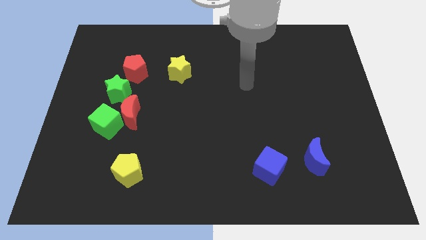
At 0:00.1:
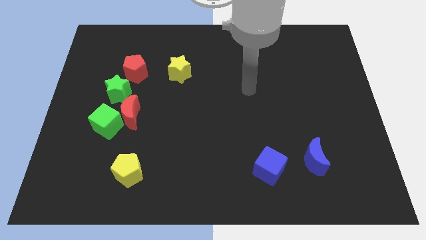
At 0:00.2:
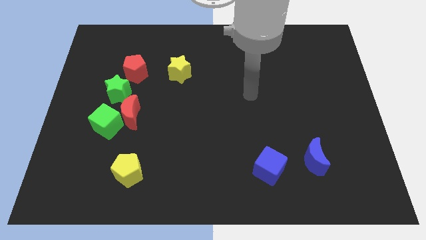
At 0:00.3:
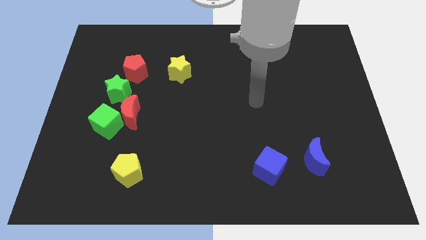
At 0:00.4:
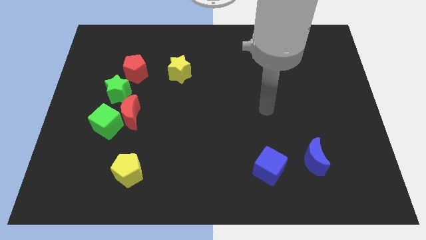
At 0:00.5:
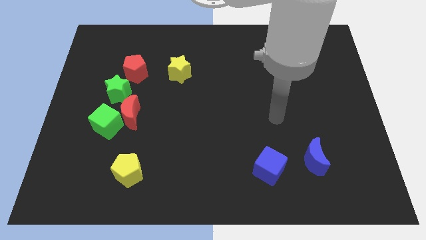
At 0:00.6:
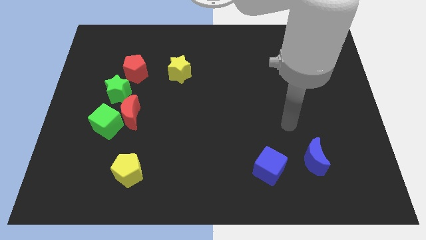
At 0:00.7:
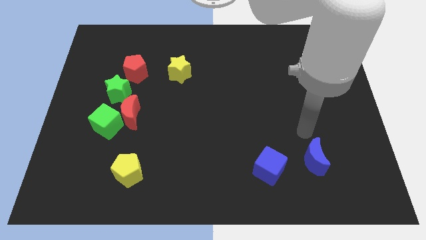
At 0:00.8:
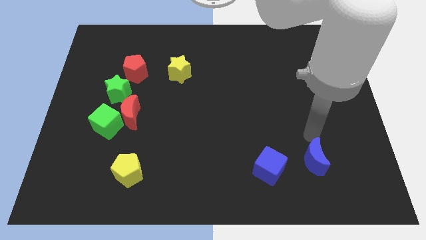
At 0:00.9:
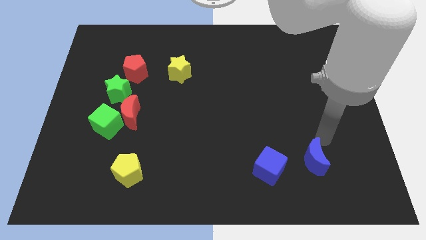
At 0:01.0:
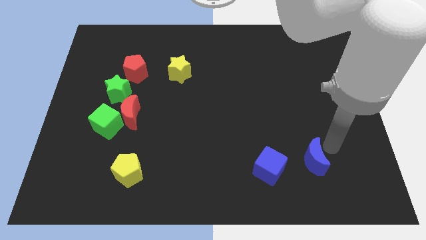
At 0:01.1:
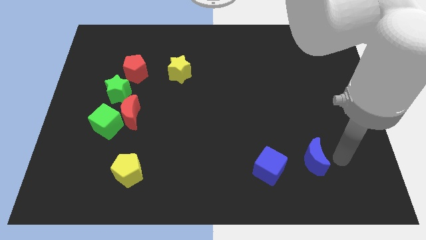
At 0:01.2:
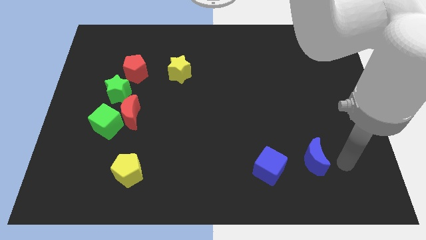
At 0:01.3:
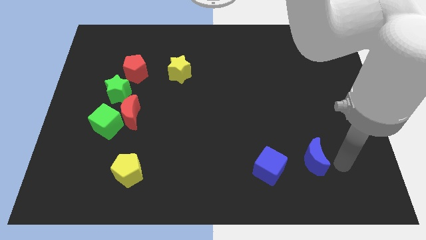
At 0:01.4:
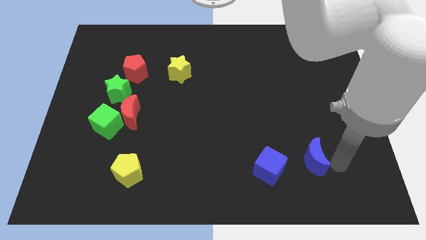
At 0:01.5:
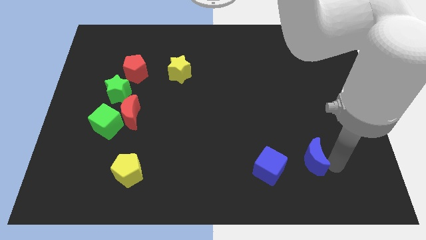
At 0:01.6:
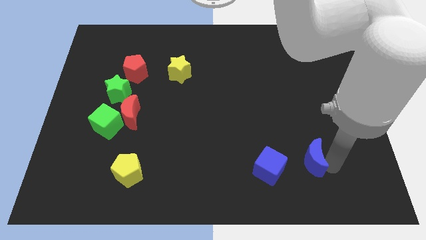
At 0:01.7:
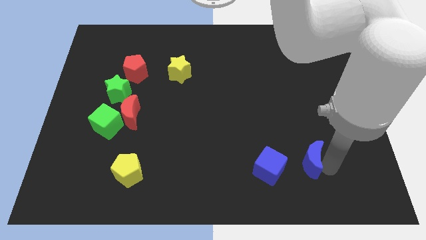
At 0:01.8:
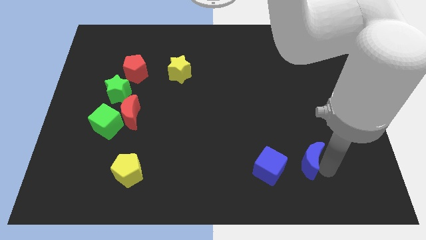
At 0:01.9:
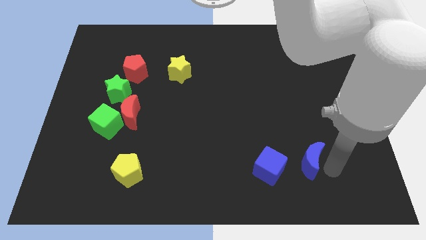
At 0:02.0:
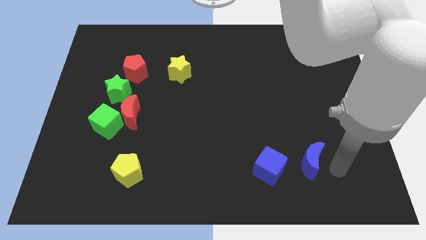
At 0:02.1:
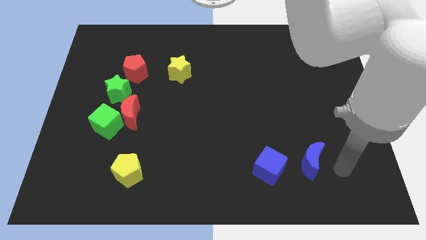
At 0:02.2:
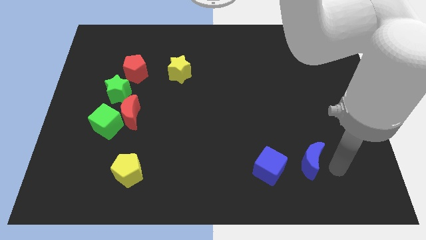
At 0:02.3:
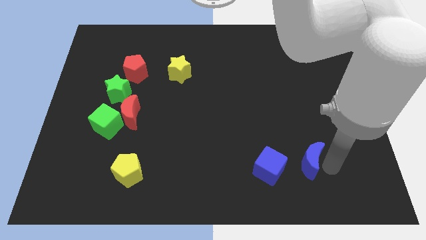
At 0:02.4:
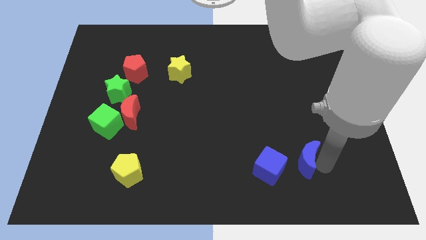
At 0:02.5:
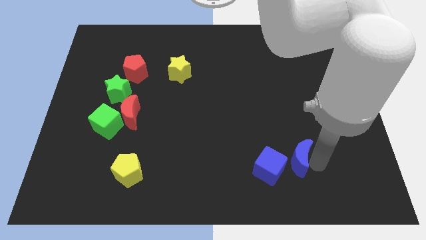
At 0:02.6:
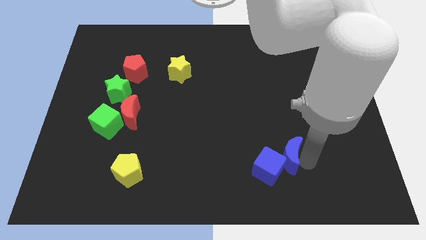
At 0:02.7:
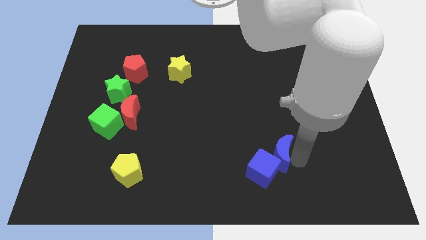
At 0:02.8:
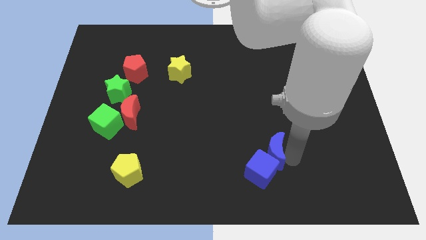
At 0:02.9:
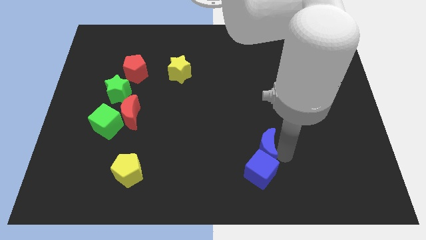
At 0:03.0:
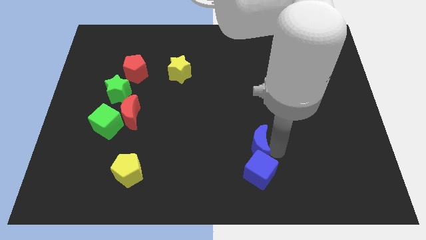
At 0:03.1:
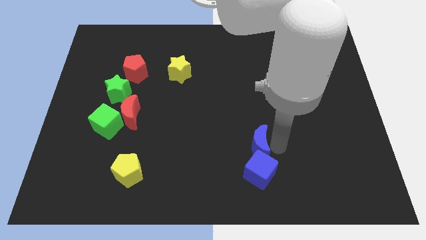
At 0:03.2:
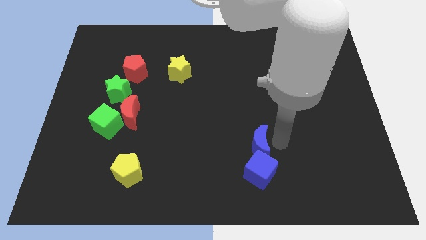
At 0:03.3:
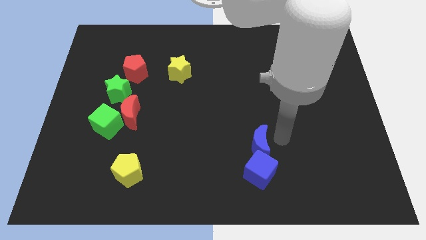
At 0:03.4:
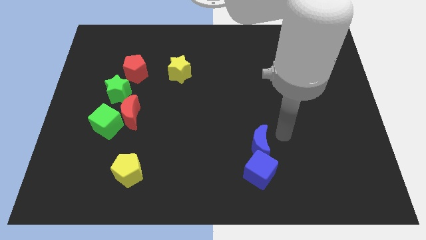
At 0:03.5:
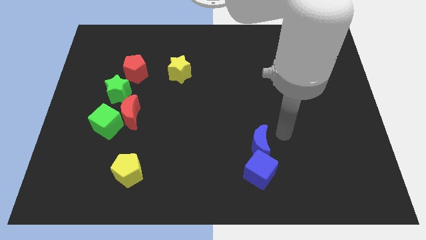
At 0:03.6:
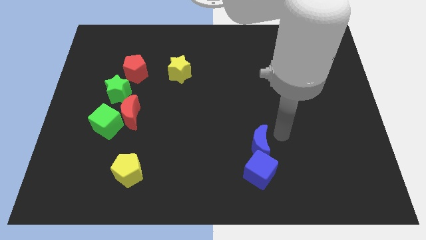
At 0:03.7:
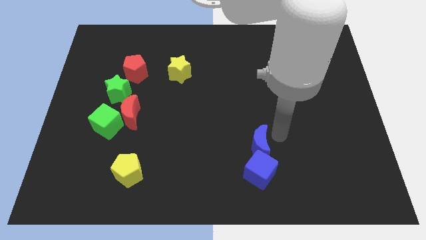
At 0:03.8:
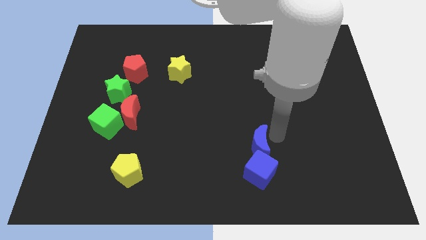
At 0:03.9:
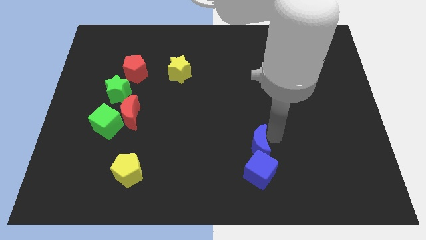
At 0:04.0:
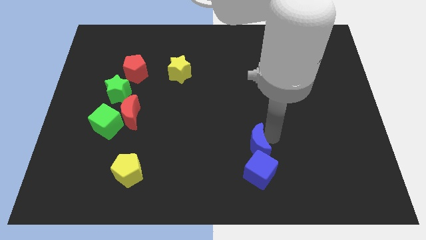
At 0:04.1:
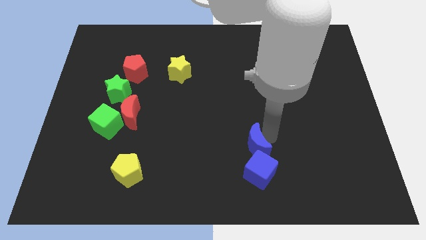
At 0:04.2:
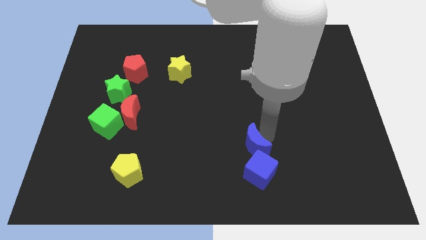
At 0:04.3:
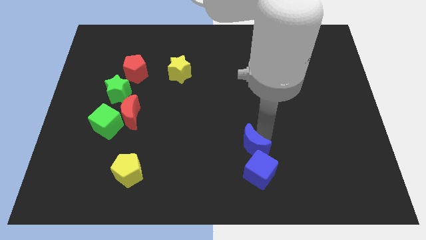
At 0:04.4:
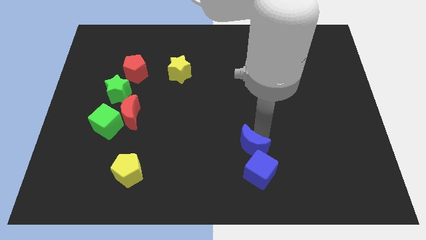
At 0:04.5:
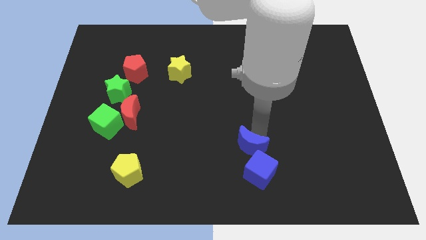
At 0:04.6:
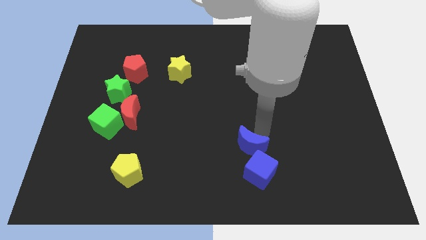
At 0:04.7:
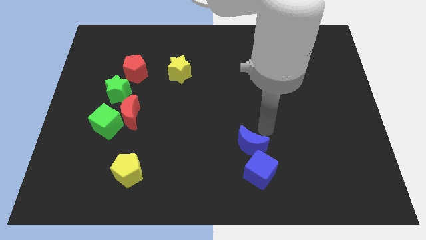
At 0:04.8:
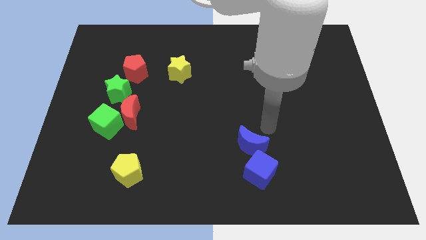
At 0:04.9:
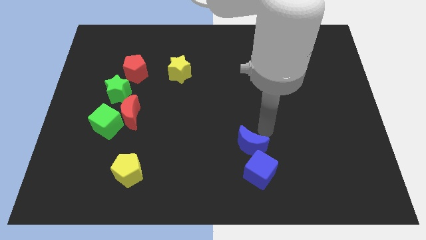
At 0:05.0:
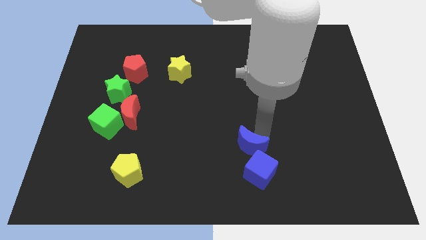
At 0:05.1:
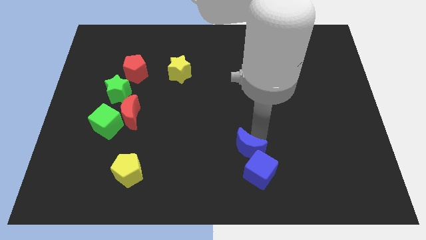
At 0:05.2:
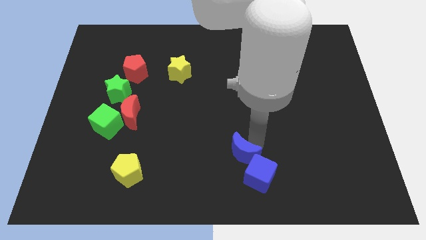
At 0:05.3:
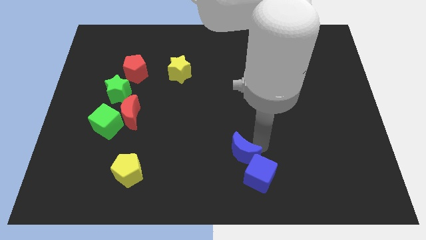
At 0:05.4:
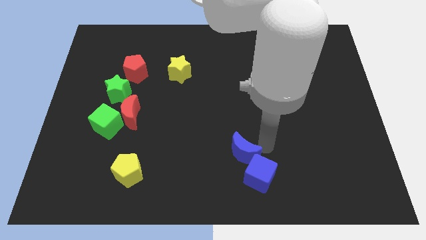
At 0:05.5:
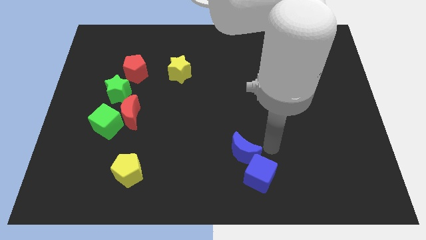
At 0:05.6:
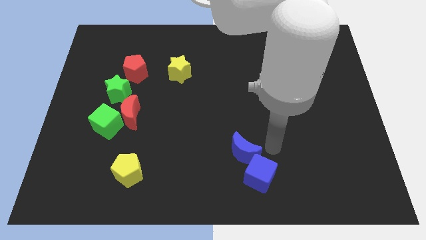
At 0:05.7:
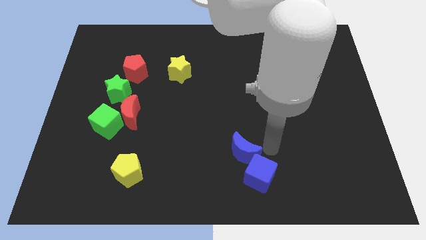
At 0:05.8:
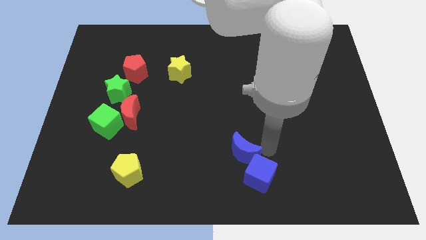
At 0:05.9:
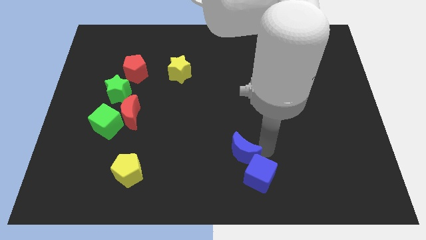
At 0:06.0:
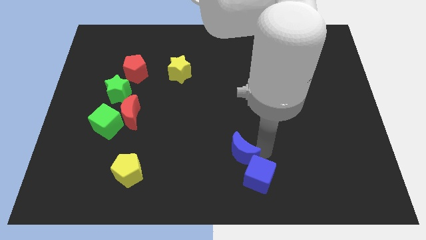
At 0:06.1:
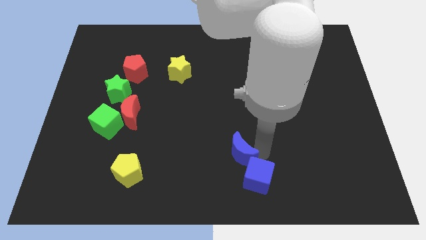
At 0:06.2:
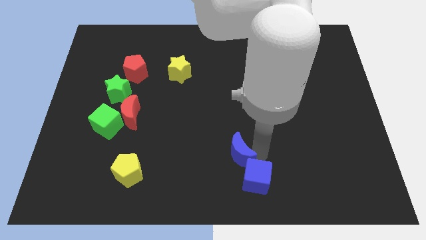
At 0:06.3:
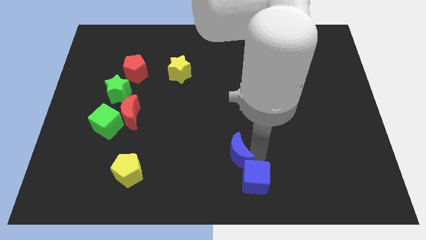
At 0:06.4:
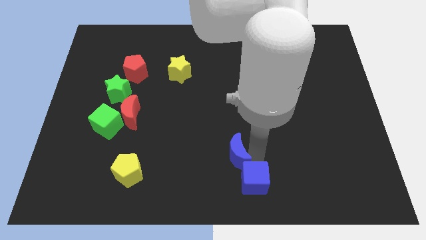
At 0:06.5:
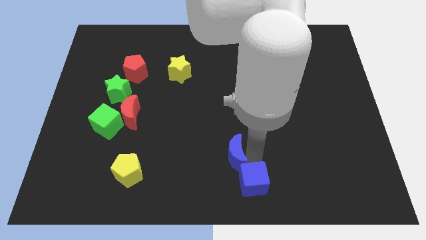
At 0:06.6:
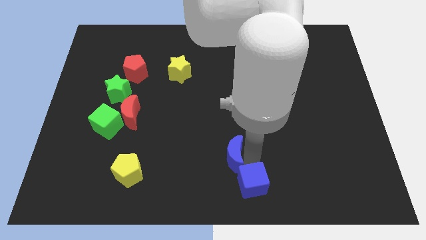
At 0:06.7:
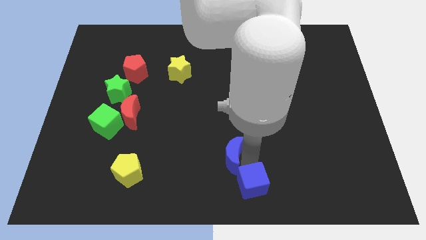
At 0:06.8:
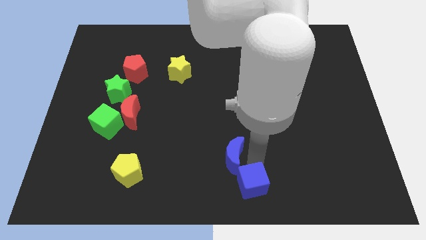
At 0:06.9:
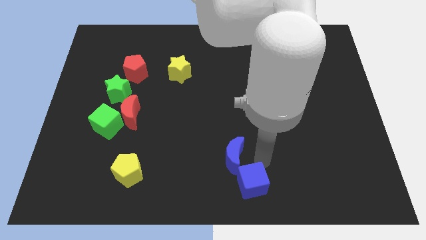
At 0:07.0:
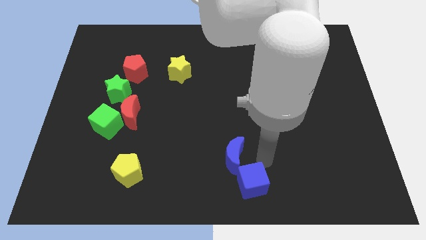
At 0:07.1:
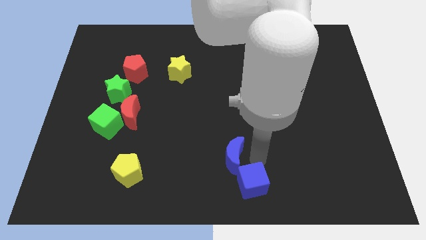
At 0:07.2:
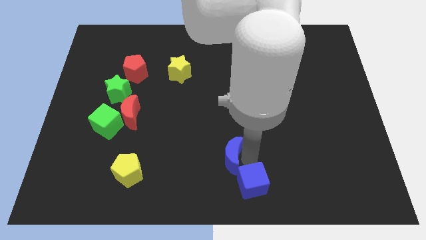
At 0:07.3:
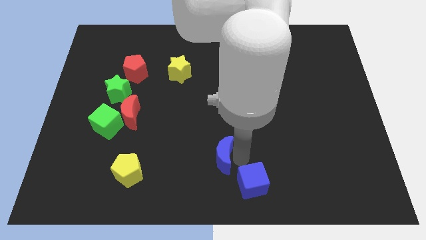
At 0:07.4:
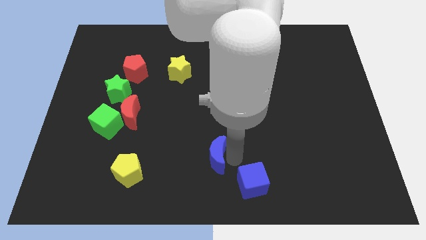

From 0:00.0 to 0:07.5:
slide the blue moon left

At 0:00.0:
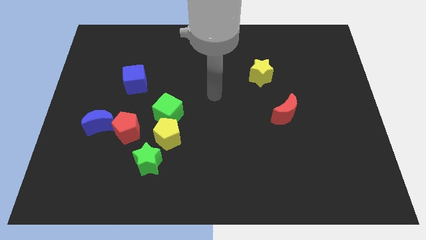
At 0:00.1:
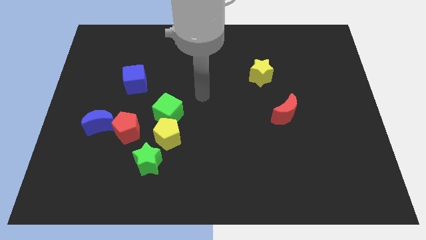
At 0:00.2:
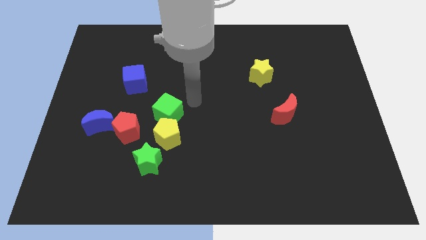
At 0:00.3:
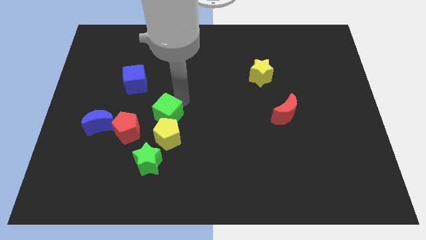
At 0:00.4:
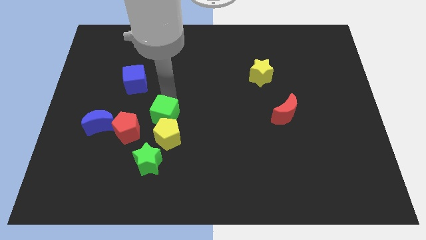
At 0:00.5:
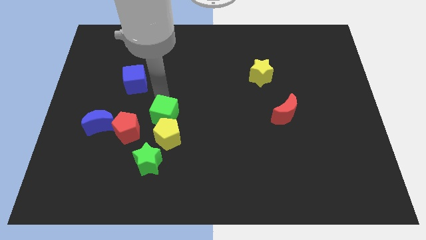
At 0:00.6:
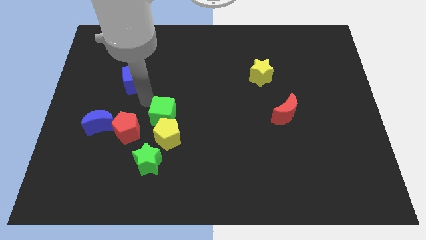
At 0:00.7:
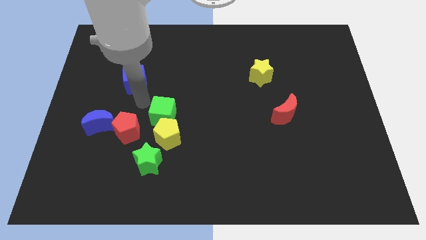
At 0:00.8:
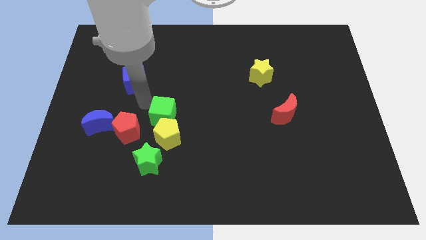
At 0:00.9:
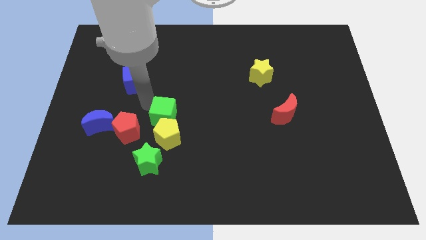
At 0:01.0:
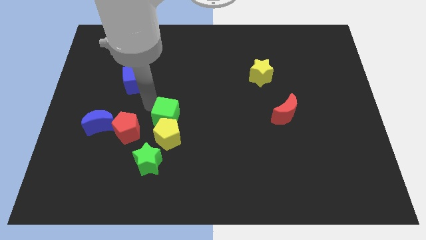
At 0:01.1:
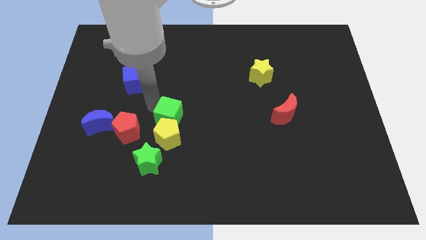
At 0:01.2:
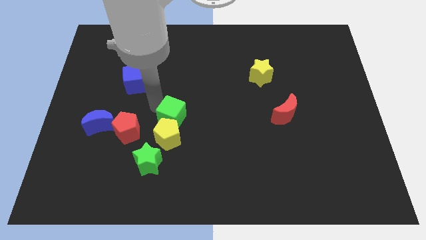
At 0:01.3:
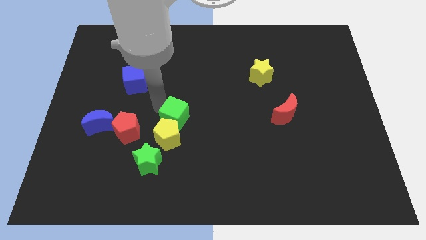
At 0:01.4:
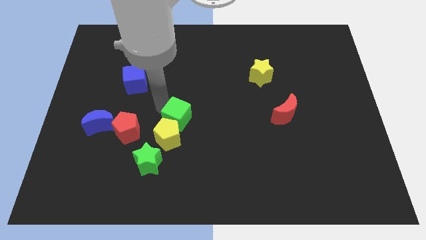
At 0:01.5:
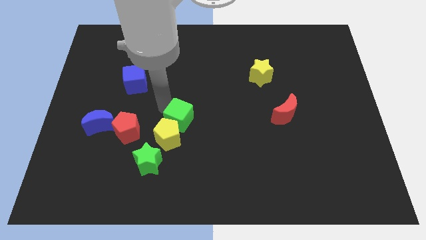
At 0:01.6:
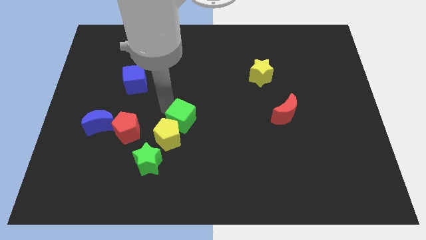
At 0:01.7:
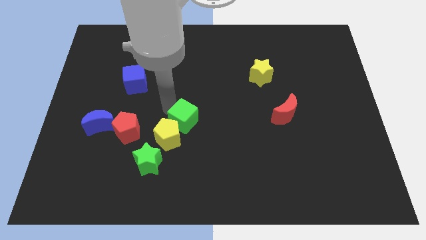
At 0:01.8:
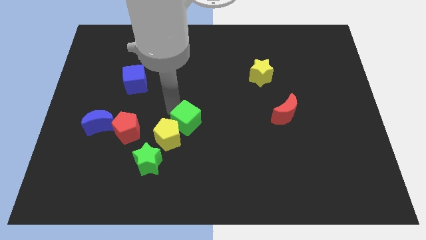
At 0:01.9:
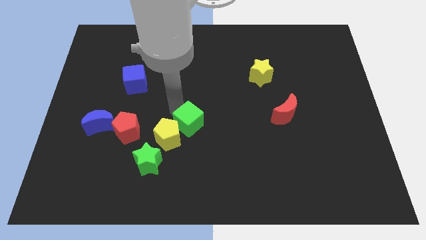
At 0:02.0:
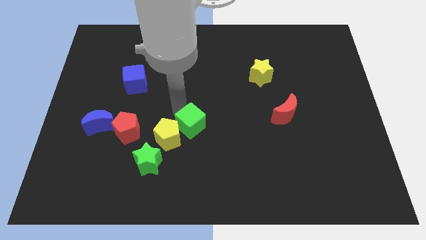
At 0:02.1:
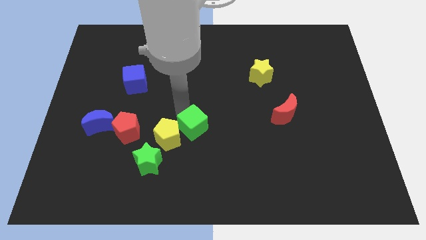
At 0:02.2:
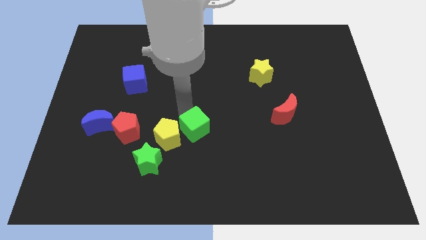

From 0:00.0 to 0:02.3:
move the green cube a little bit downwards and to the right diagonally
